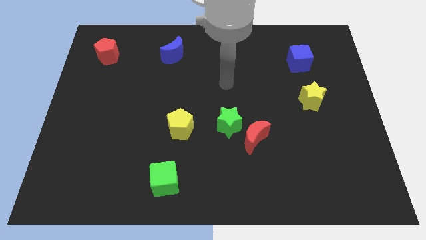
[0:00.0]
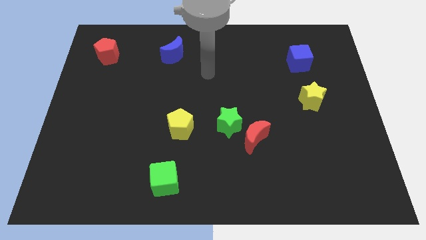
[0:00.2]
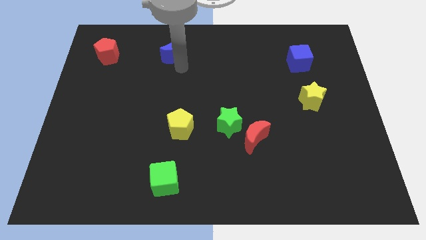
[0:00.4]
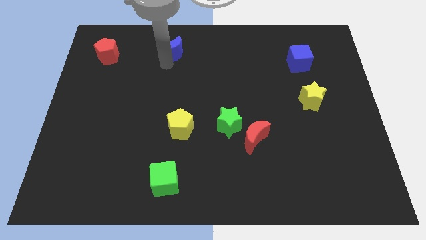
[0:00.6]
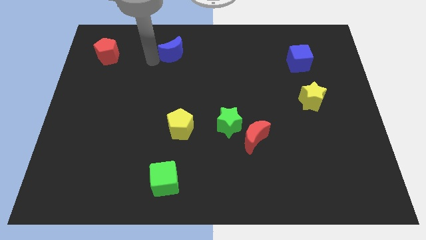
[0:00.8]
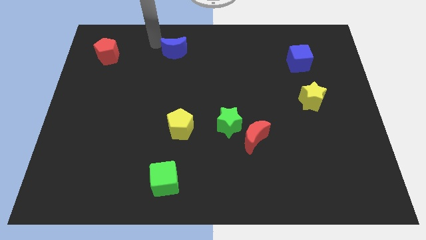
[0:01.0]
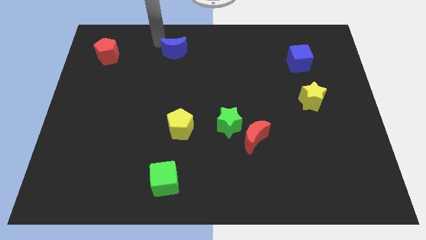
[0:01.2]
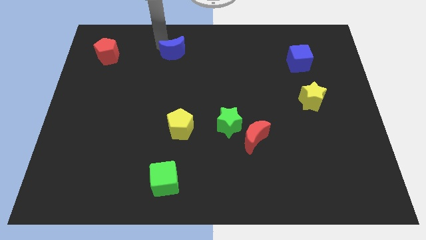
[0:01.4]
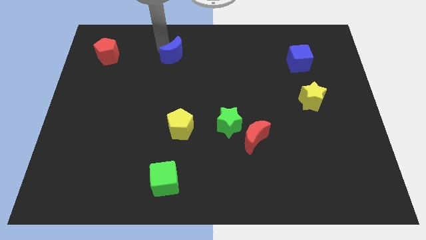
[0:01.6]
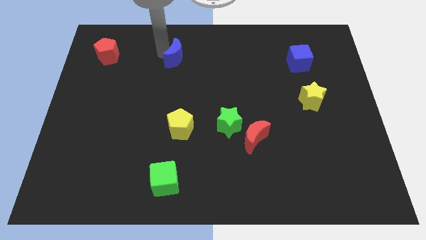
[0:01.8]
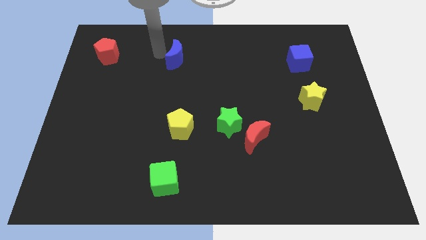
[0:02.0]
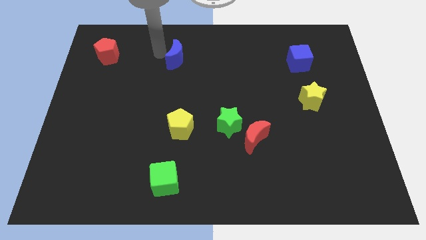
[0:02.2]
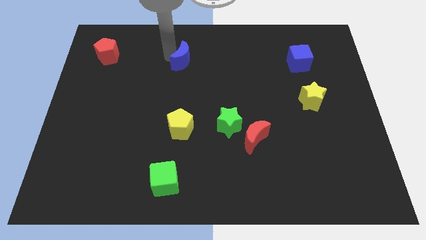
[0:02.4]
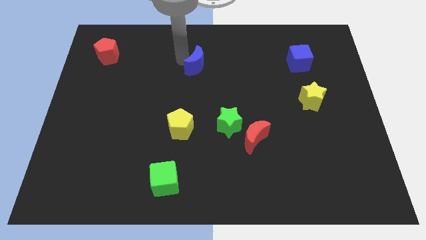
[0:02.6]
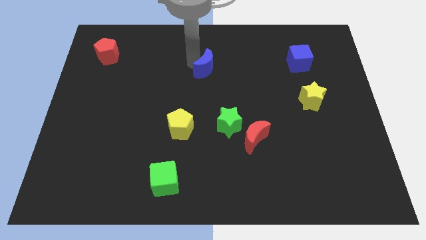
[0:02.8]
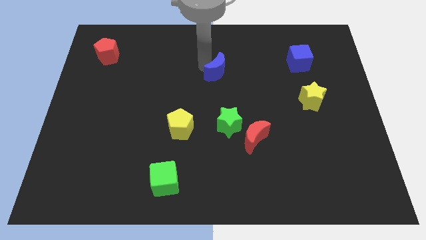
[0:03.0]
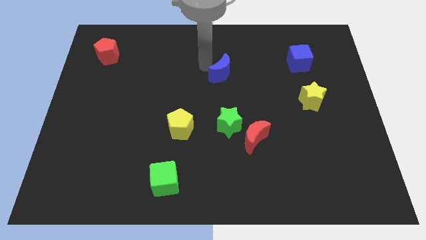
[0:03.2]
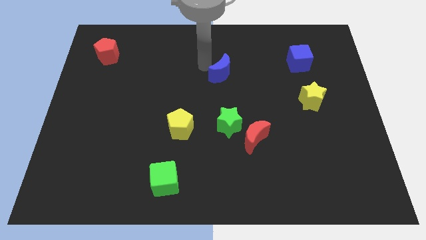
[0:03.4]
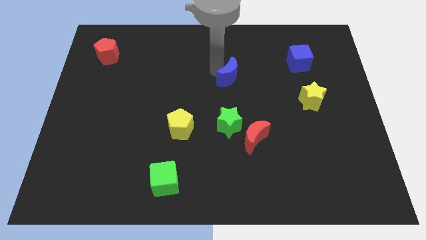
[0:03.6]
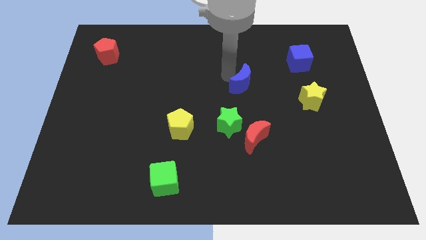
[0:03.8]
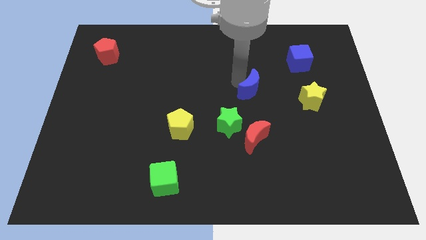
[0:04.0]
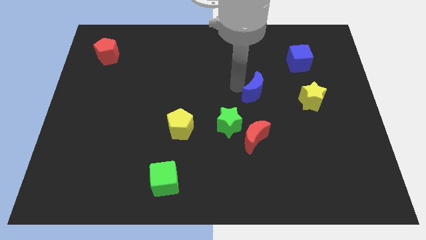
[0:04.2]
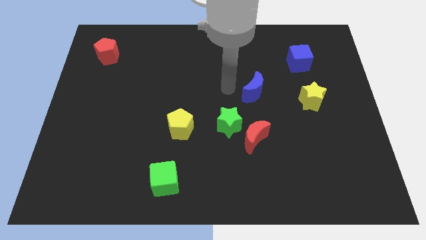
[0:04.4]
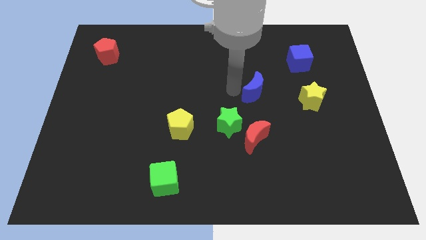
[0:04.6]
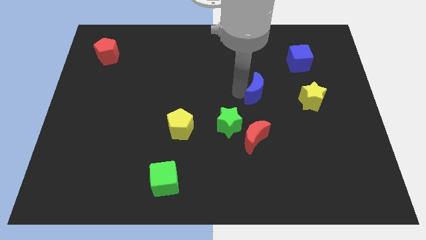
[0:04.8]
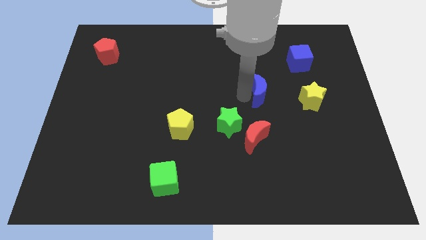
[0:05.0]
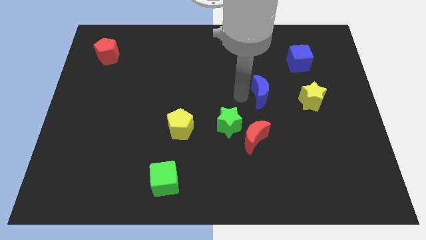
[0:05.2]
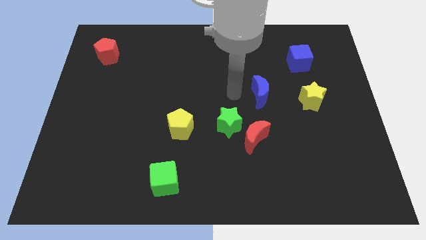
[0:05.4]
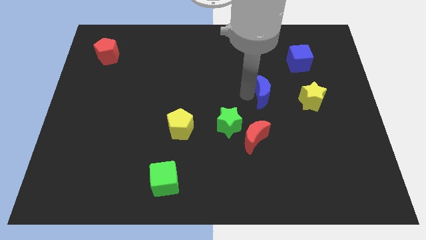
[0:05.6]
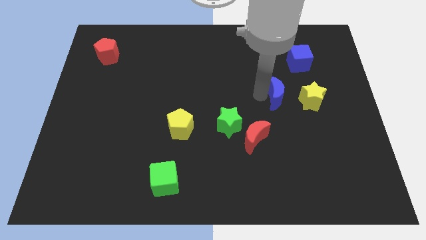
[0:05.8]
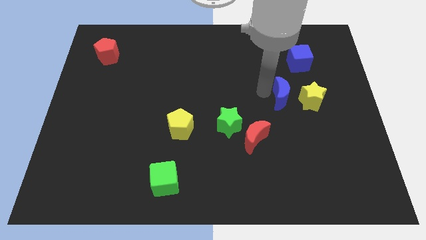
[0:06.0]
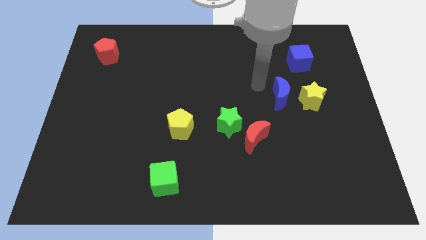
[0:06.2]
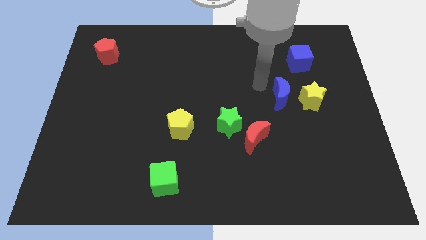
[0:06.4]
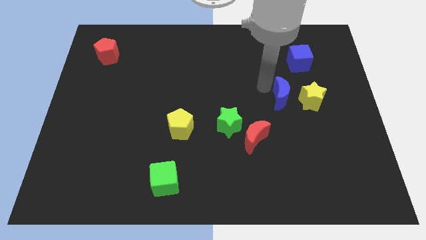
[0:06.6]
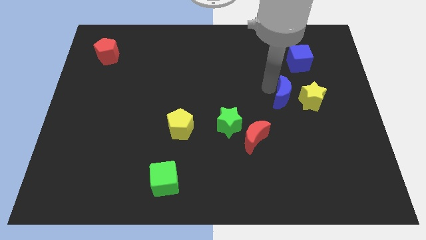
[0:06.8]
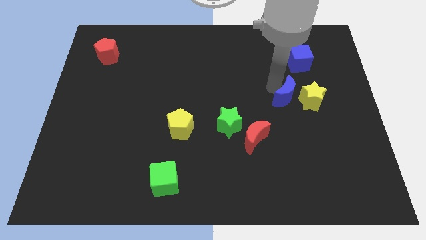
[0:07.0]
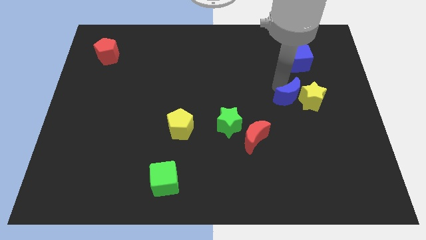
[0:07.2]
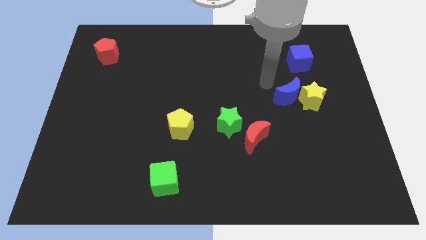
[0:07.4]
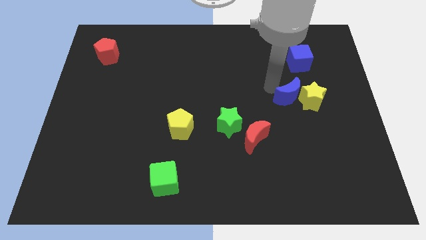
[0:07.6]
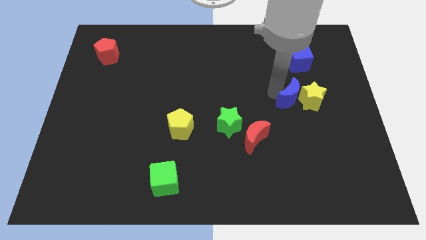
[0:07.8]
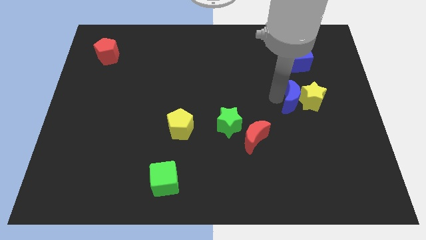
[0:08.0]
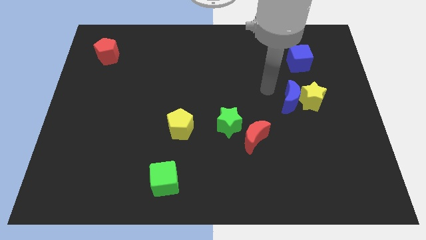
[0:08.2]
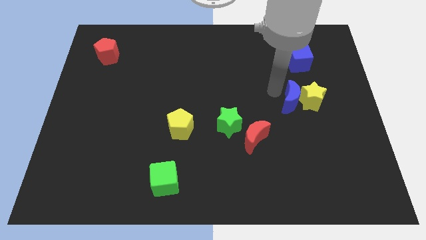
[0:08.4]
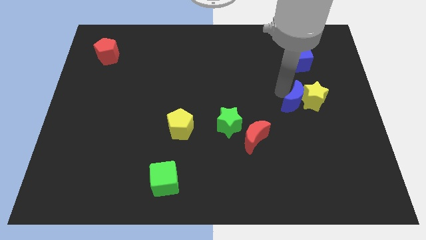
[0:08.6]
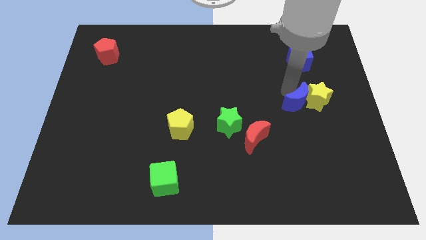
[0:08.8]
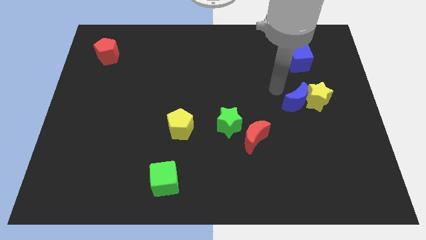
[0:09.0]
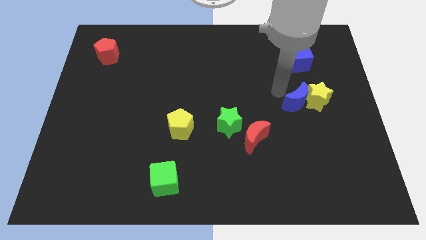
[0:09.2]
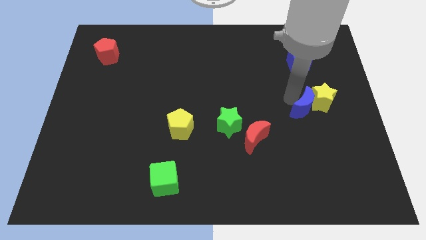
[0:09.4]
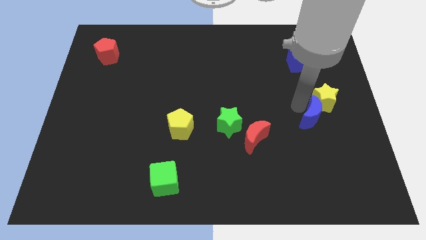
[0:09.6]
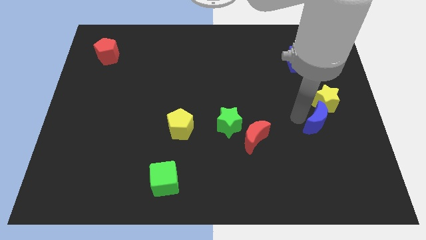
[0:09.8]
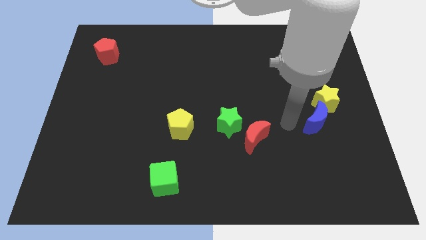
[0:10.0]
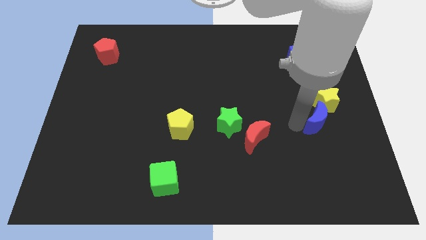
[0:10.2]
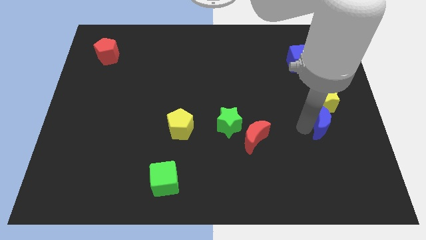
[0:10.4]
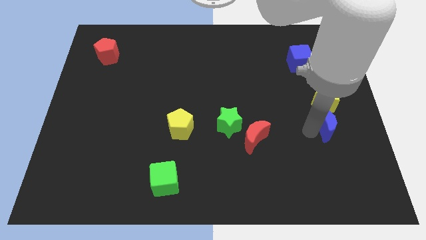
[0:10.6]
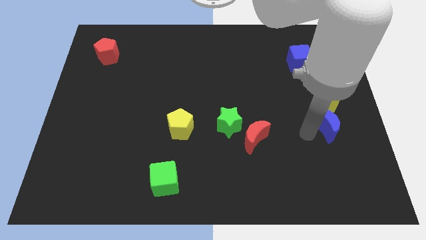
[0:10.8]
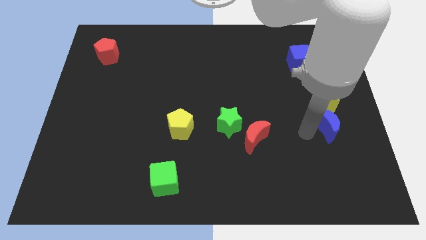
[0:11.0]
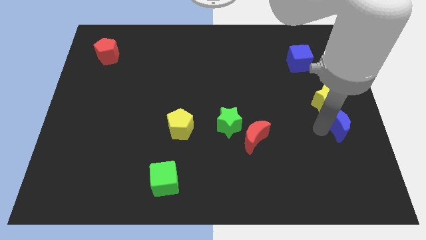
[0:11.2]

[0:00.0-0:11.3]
move the blue moon to the bottom right side of the yellow star

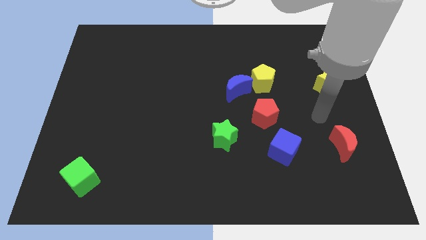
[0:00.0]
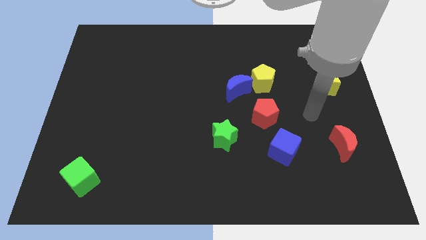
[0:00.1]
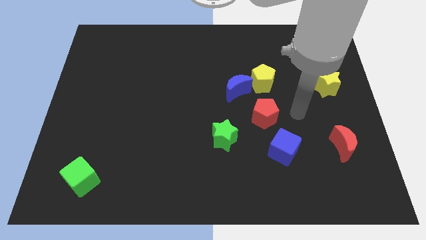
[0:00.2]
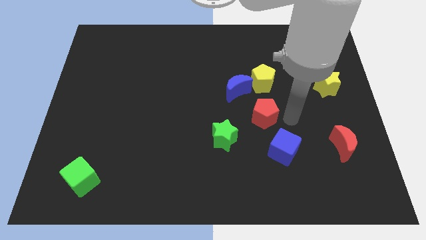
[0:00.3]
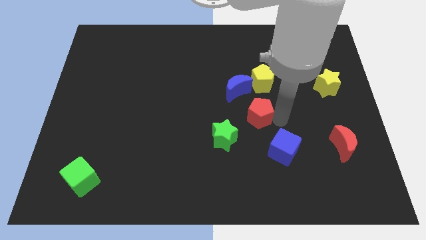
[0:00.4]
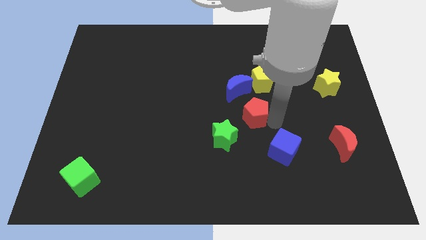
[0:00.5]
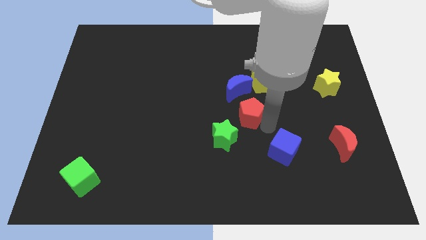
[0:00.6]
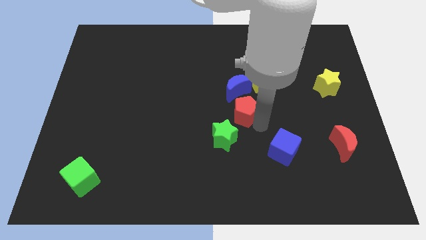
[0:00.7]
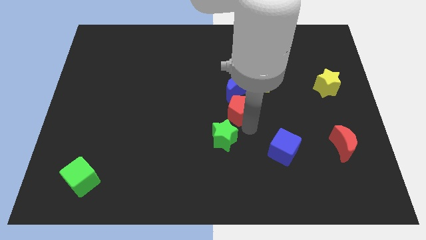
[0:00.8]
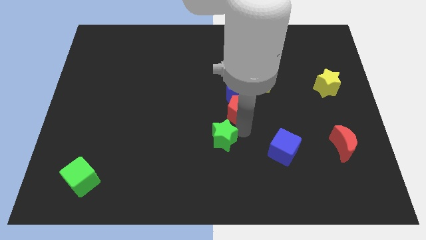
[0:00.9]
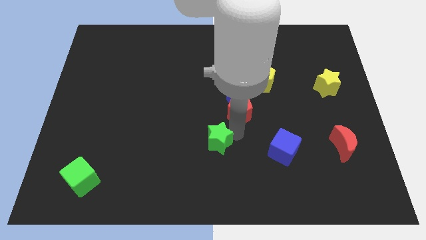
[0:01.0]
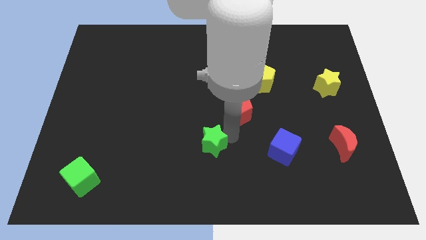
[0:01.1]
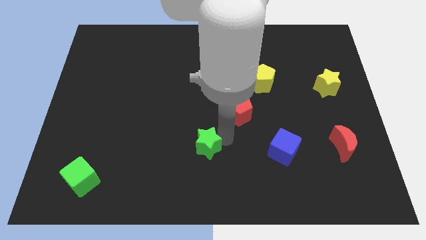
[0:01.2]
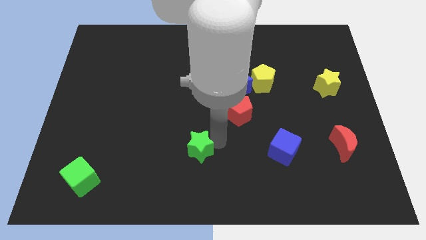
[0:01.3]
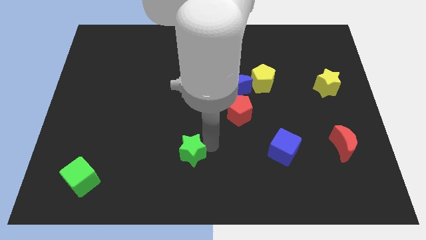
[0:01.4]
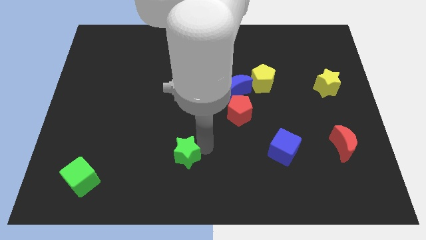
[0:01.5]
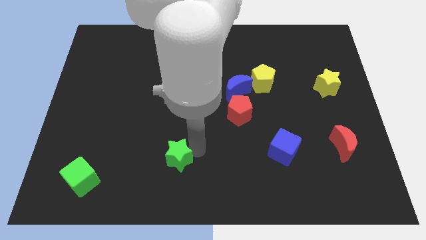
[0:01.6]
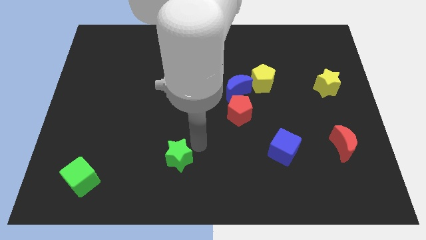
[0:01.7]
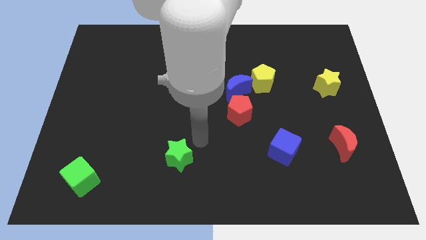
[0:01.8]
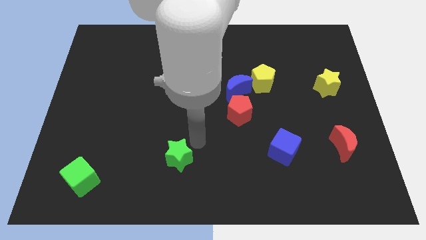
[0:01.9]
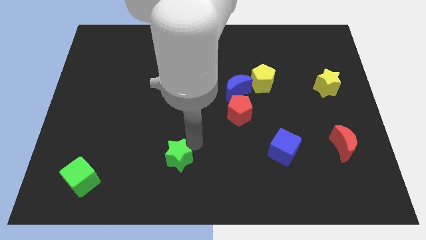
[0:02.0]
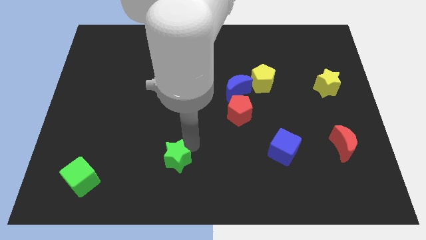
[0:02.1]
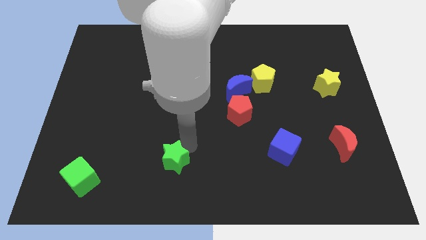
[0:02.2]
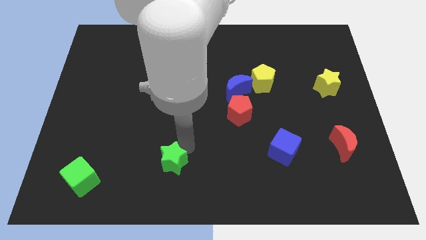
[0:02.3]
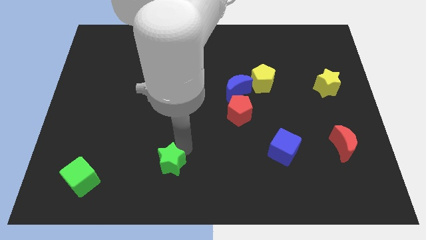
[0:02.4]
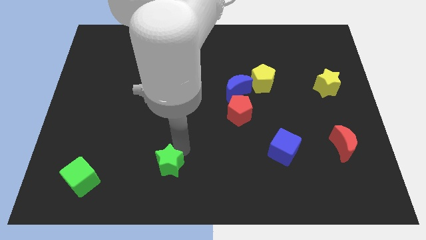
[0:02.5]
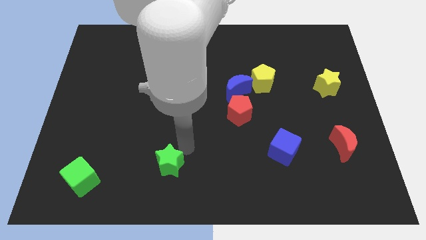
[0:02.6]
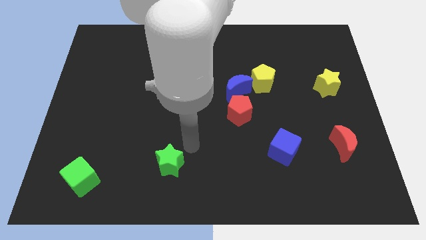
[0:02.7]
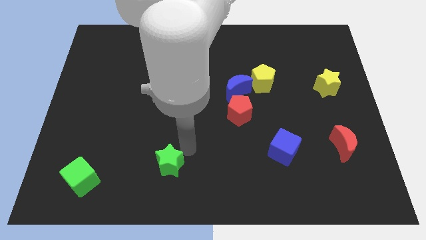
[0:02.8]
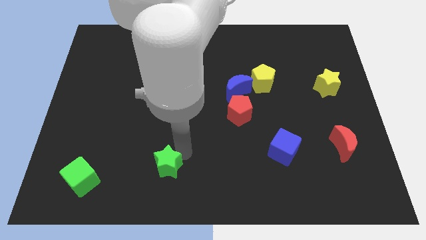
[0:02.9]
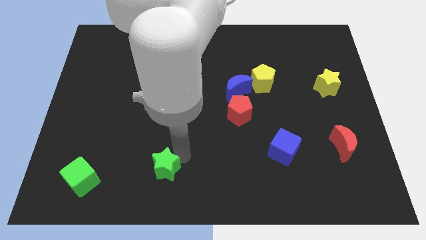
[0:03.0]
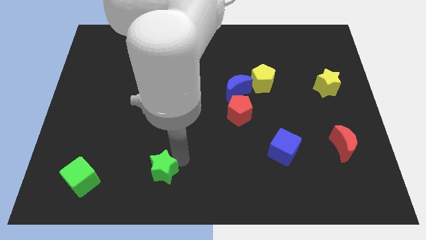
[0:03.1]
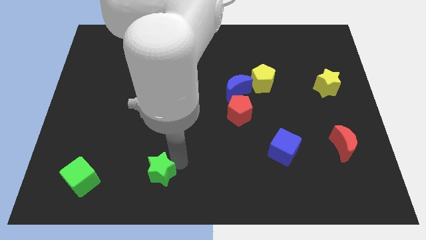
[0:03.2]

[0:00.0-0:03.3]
push the green star right of the green cube
